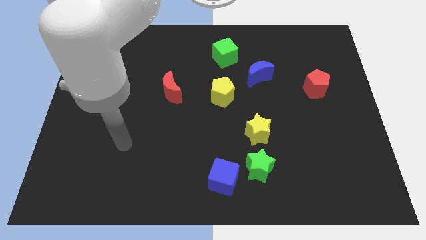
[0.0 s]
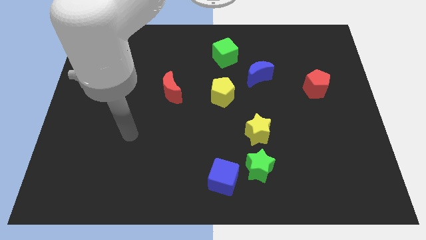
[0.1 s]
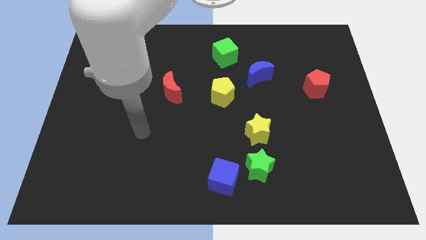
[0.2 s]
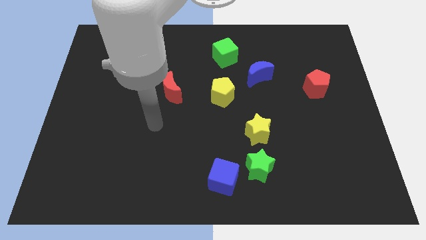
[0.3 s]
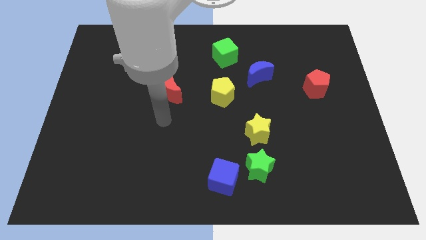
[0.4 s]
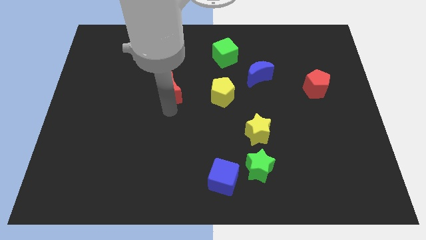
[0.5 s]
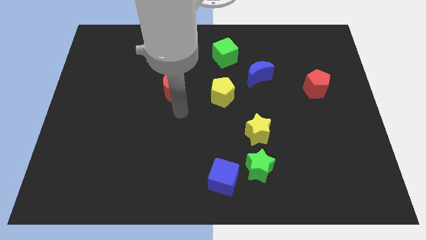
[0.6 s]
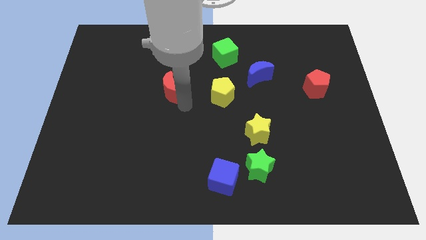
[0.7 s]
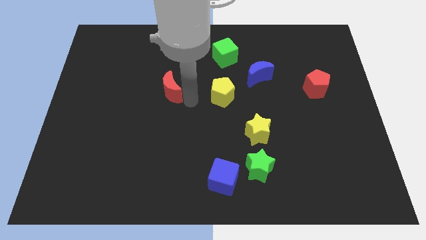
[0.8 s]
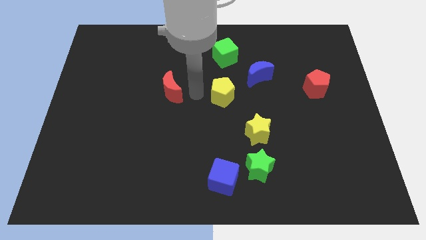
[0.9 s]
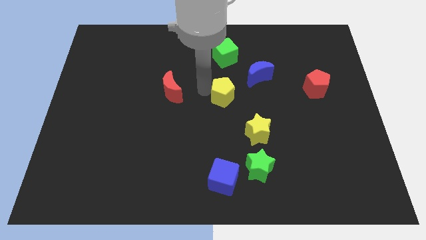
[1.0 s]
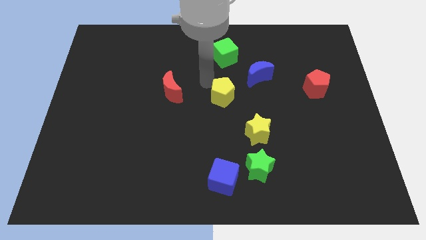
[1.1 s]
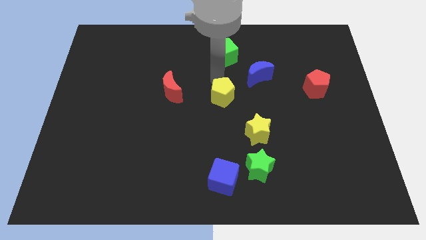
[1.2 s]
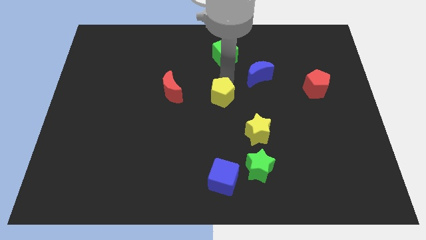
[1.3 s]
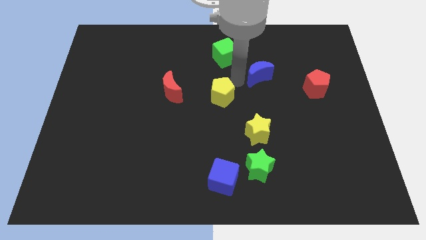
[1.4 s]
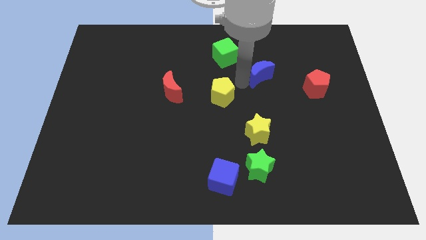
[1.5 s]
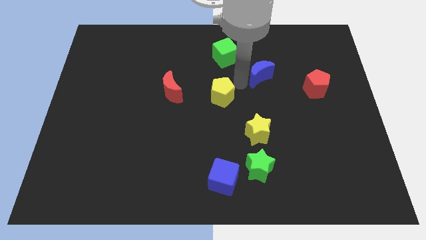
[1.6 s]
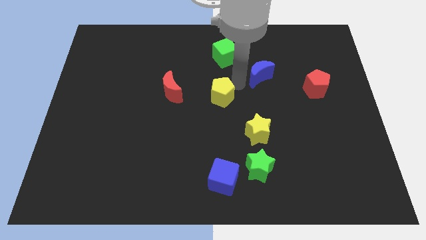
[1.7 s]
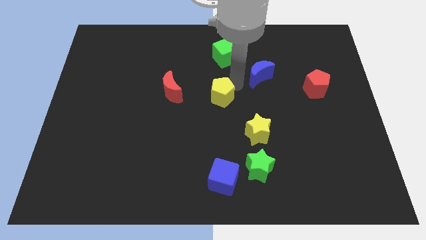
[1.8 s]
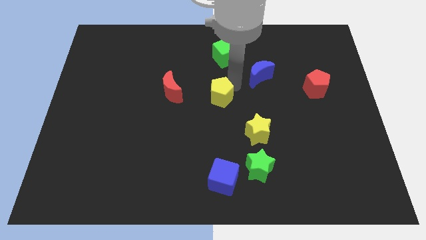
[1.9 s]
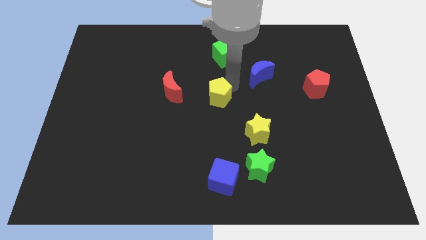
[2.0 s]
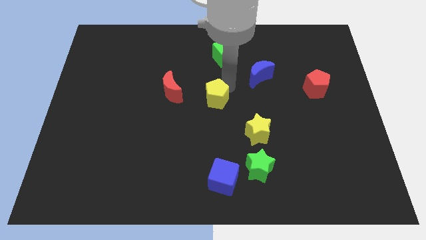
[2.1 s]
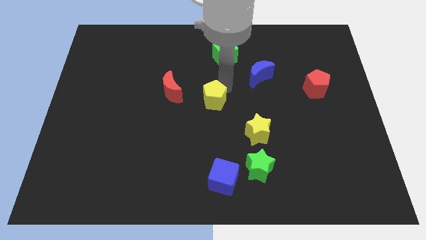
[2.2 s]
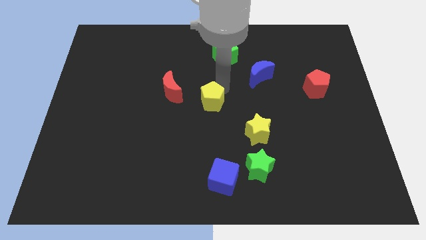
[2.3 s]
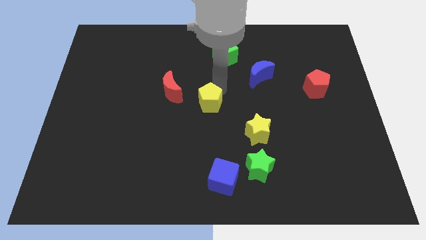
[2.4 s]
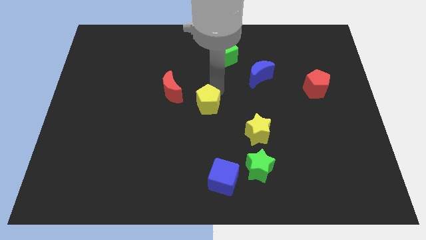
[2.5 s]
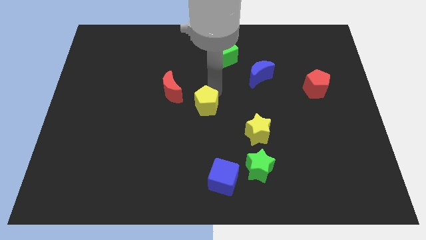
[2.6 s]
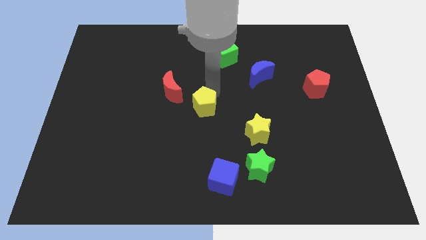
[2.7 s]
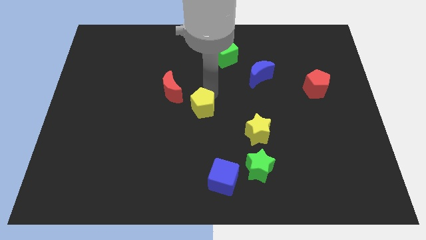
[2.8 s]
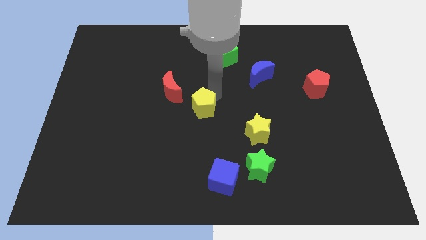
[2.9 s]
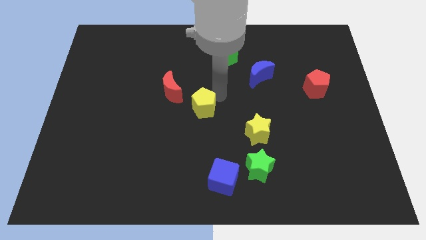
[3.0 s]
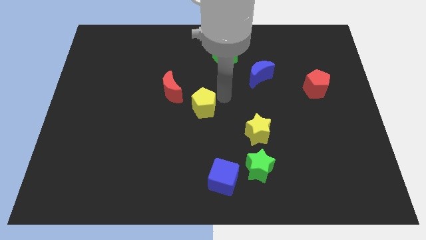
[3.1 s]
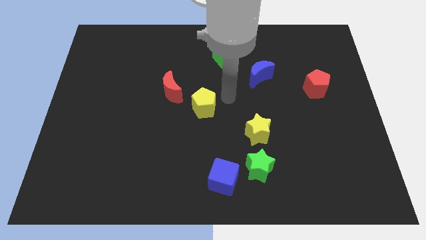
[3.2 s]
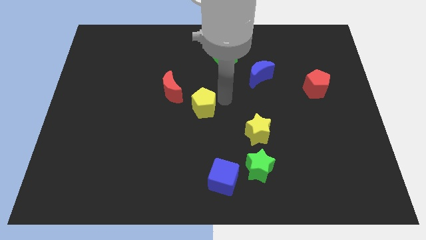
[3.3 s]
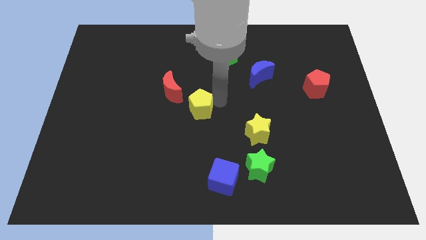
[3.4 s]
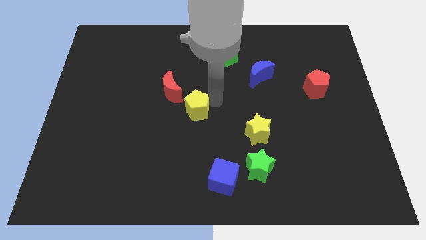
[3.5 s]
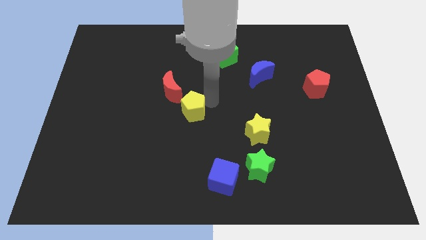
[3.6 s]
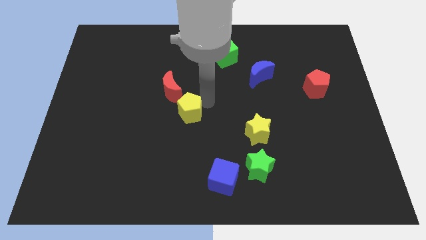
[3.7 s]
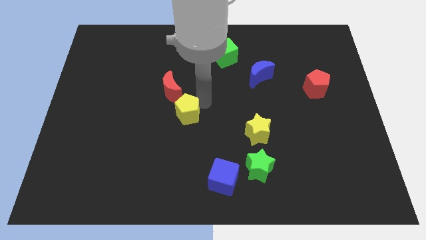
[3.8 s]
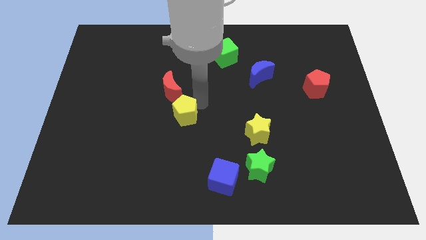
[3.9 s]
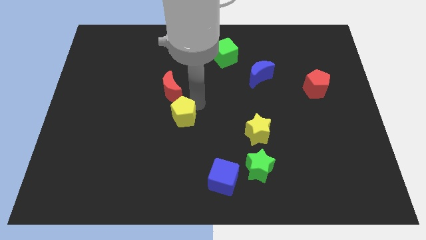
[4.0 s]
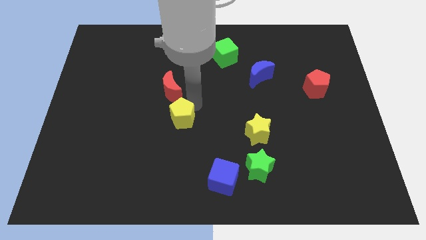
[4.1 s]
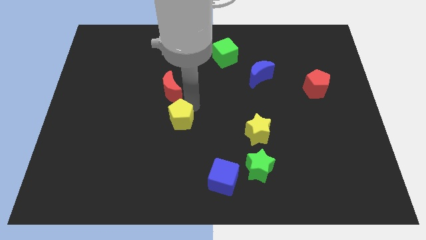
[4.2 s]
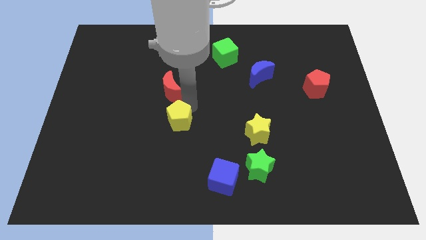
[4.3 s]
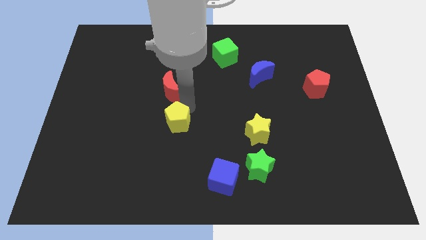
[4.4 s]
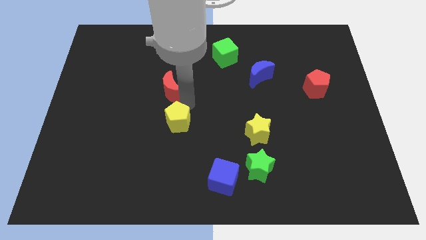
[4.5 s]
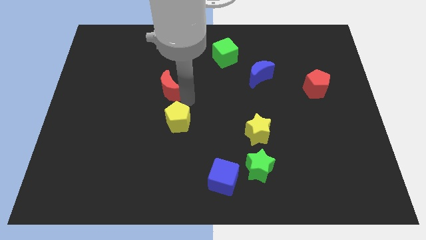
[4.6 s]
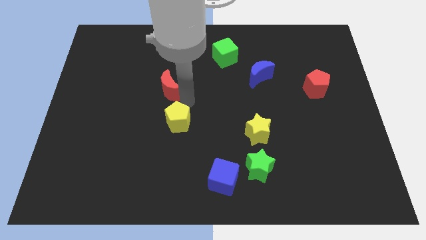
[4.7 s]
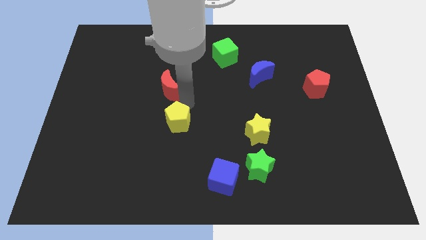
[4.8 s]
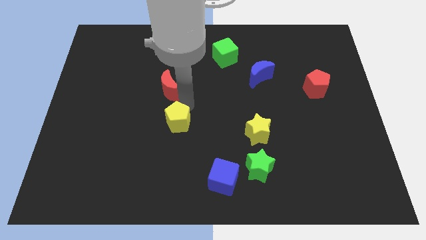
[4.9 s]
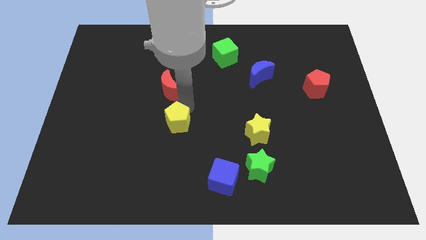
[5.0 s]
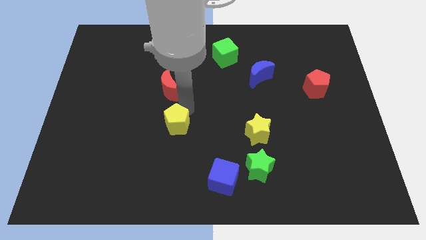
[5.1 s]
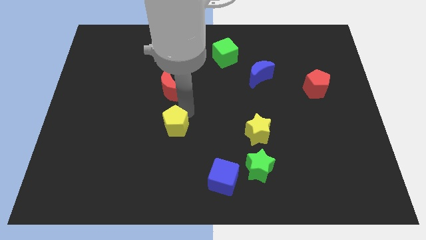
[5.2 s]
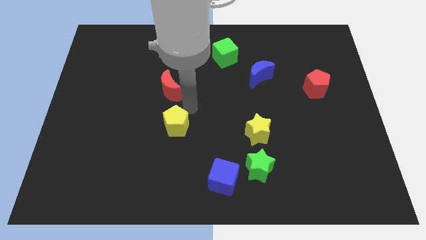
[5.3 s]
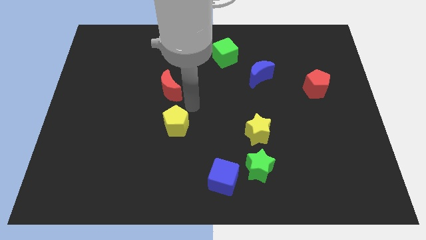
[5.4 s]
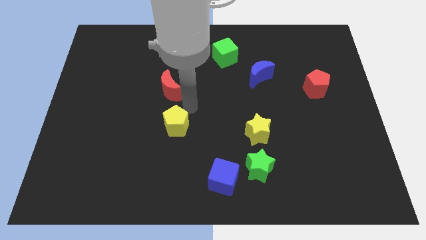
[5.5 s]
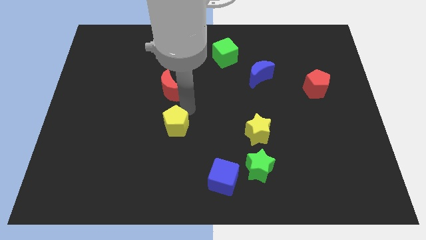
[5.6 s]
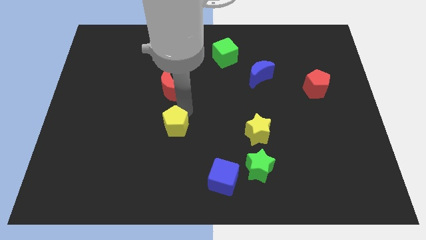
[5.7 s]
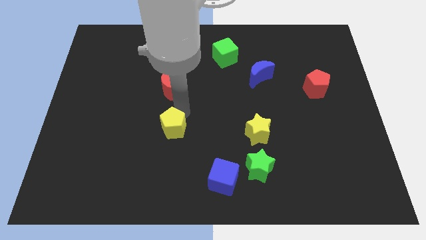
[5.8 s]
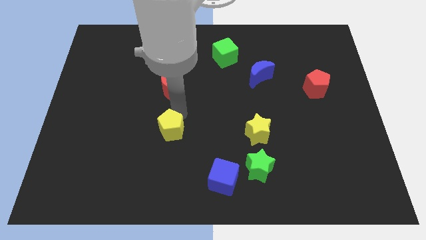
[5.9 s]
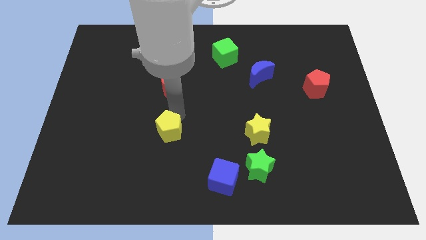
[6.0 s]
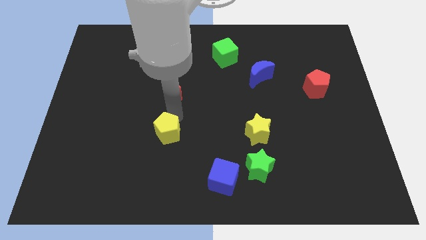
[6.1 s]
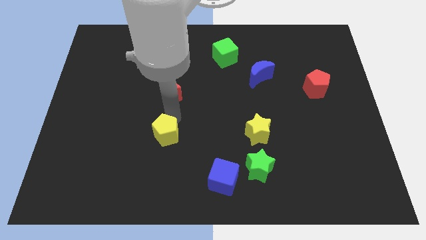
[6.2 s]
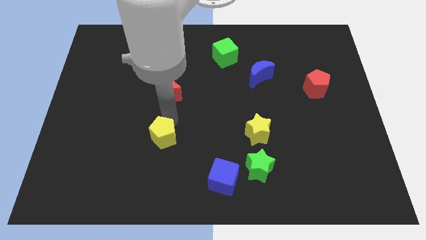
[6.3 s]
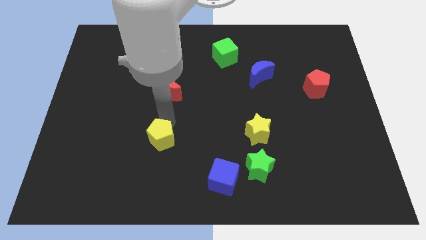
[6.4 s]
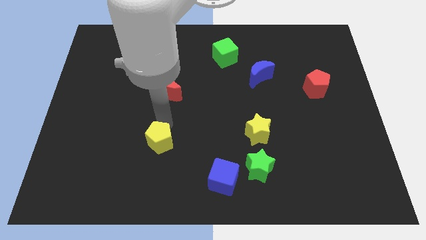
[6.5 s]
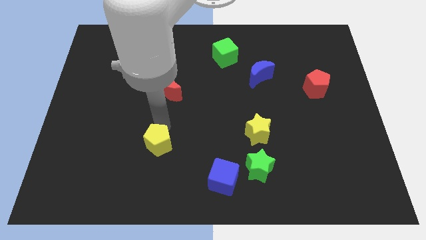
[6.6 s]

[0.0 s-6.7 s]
slide the yellow pentagon diagonally downwards and to the left

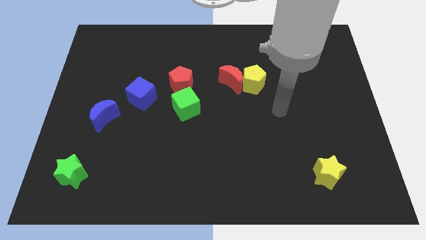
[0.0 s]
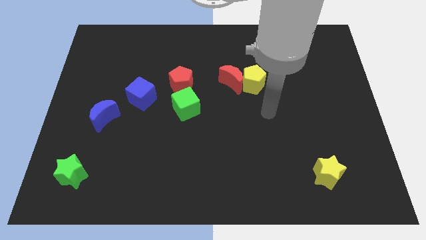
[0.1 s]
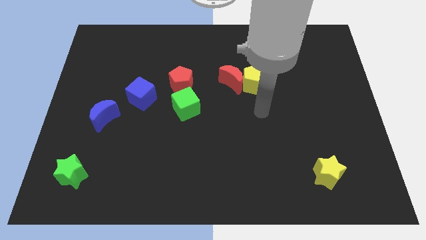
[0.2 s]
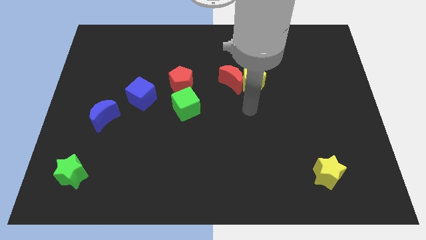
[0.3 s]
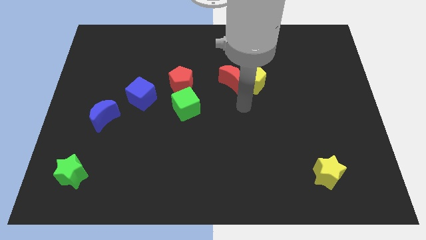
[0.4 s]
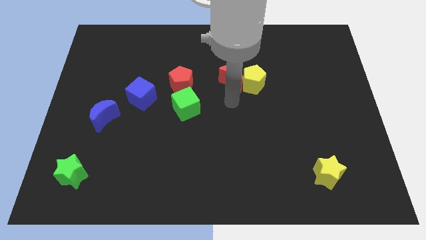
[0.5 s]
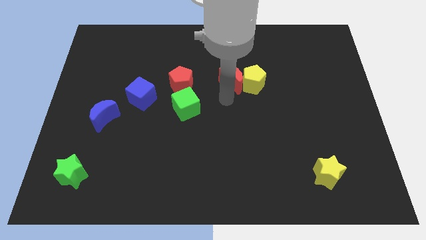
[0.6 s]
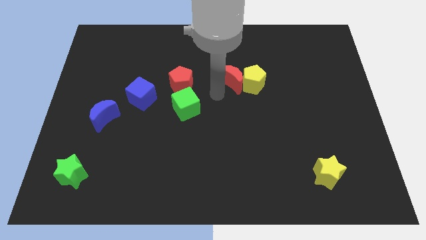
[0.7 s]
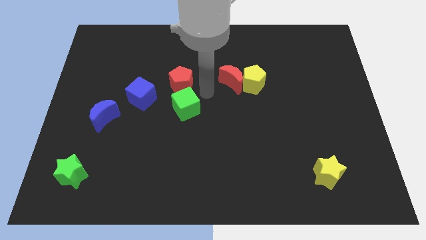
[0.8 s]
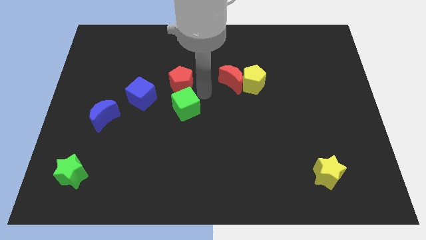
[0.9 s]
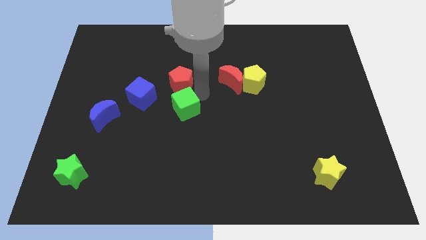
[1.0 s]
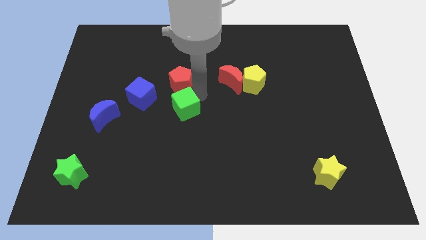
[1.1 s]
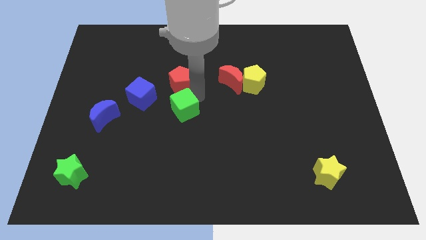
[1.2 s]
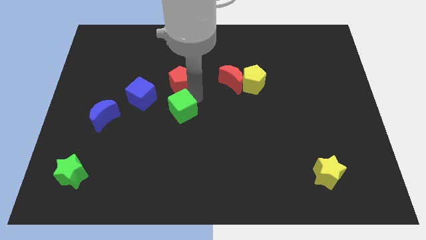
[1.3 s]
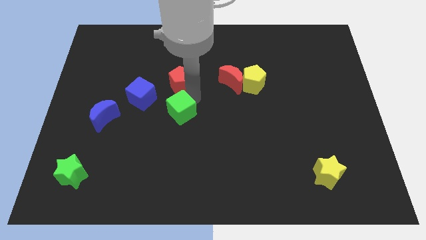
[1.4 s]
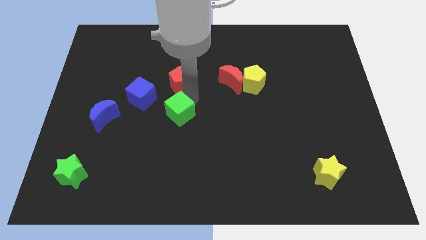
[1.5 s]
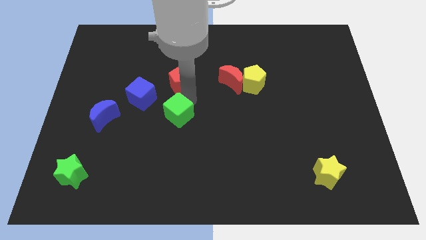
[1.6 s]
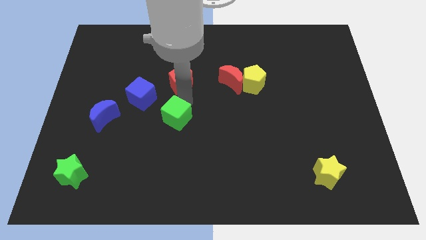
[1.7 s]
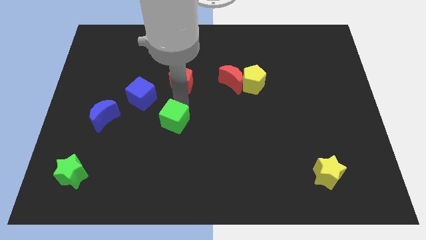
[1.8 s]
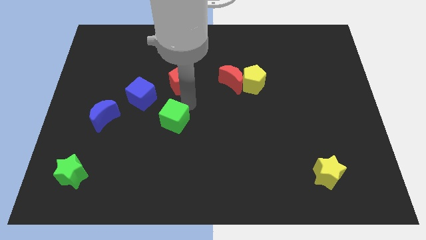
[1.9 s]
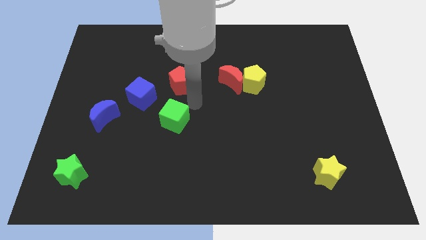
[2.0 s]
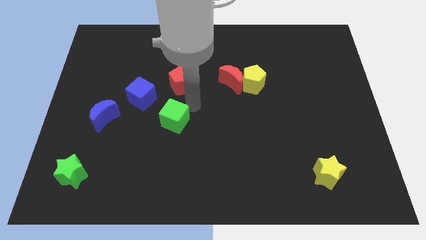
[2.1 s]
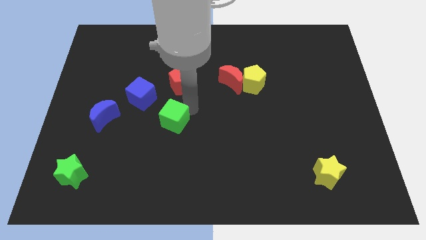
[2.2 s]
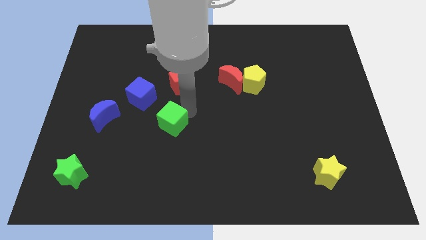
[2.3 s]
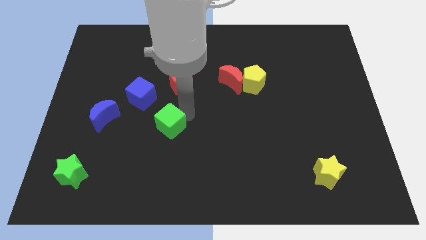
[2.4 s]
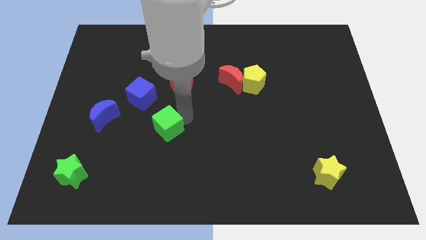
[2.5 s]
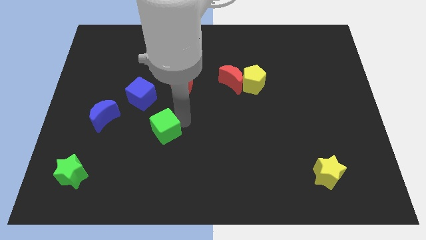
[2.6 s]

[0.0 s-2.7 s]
slightly slide the green cube downwards and to the left diagonally
